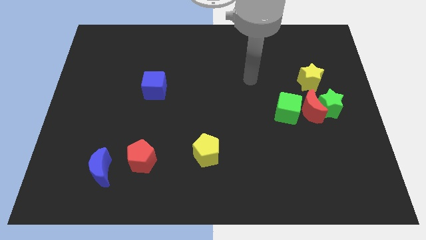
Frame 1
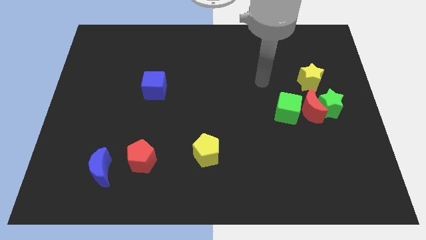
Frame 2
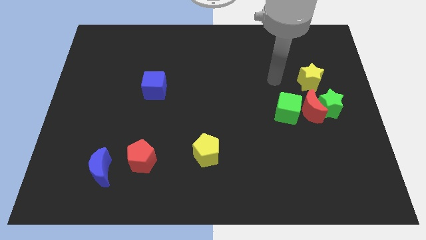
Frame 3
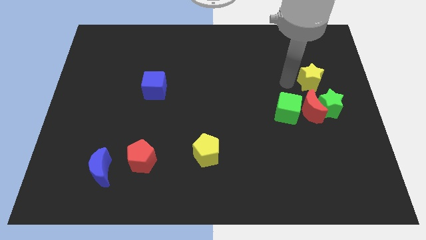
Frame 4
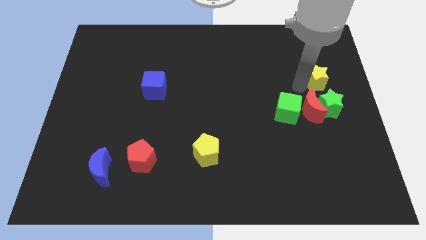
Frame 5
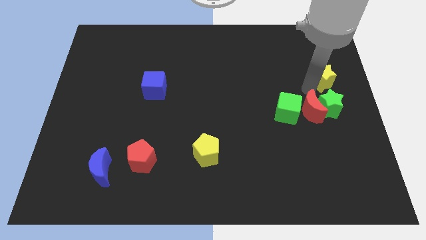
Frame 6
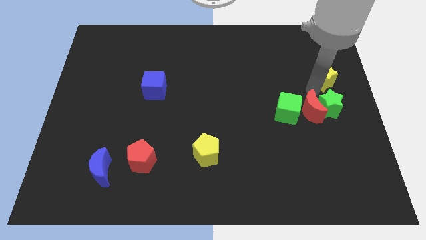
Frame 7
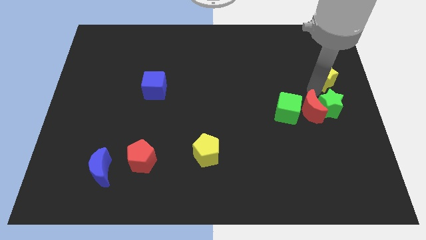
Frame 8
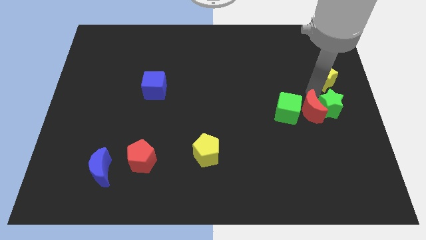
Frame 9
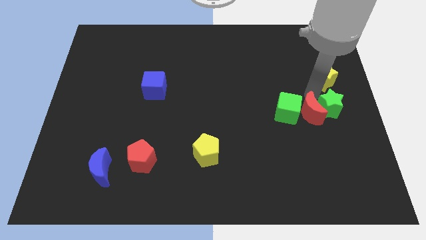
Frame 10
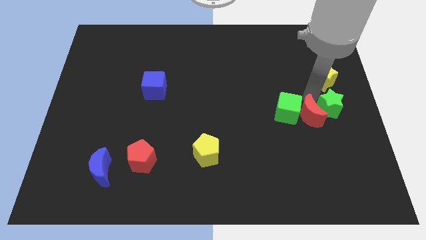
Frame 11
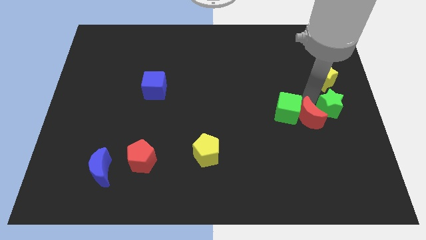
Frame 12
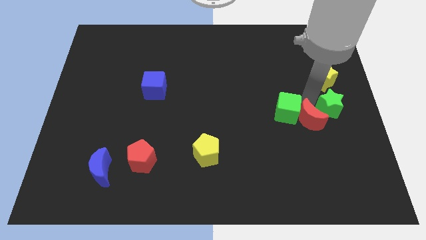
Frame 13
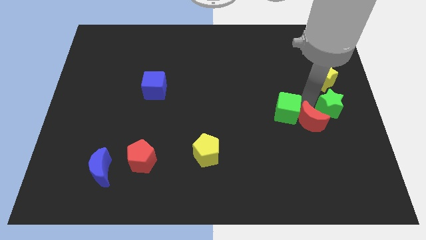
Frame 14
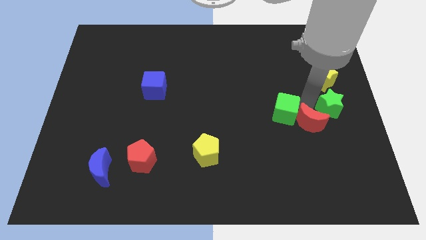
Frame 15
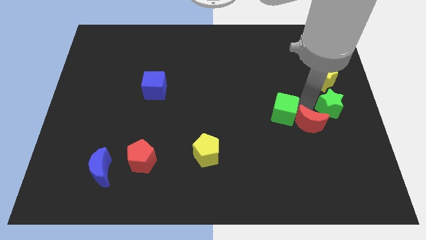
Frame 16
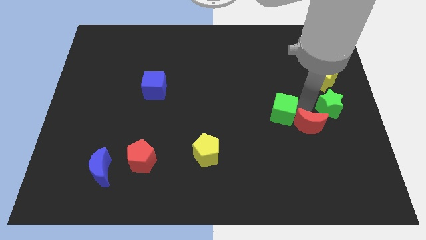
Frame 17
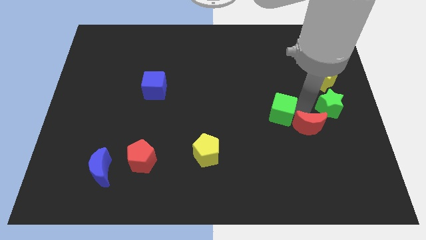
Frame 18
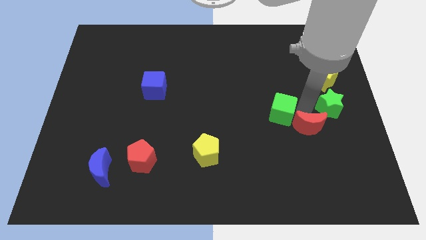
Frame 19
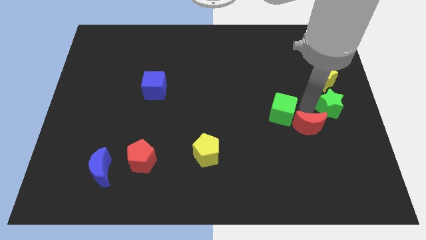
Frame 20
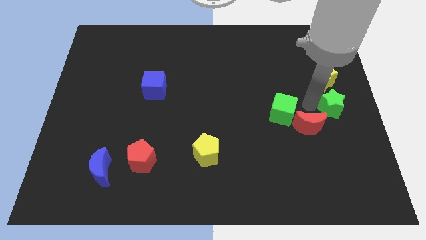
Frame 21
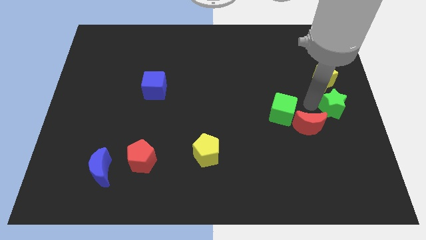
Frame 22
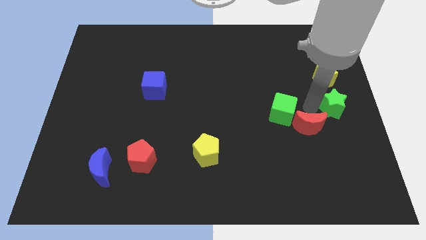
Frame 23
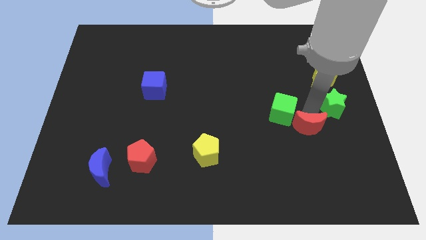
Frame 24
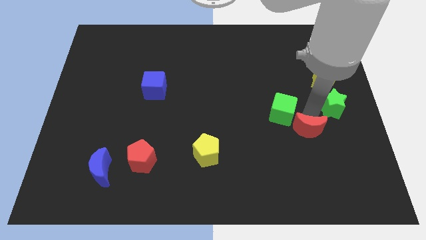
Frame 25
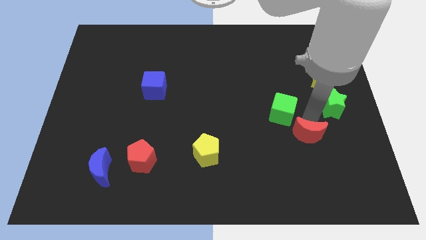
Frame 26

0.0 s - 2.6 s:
move the red moon away from the clump

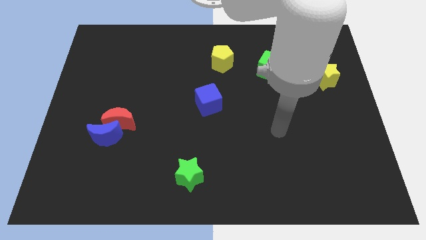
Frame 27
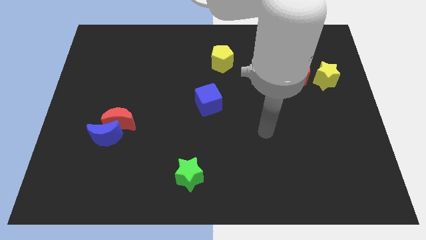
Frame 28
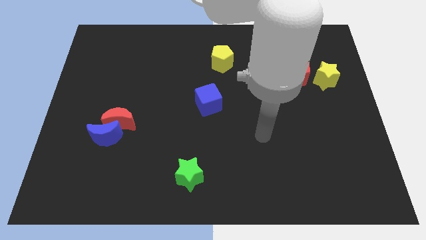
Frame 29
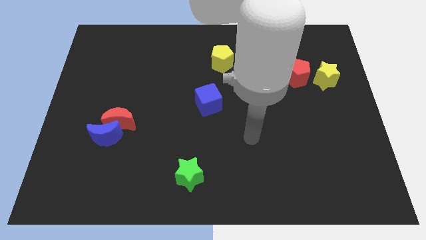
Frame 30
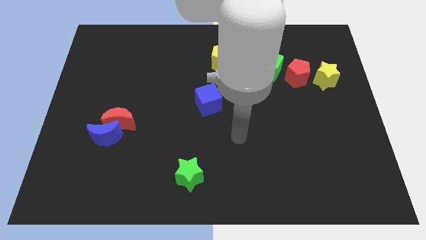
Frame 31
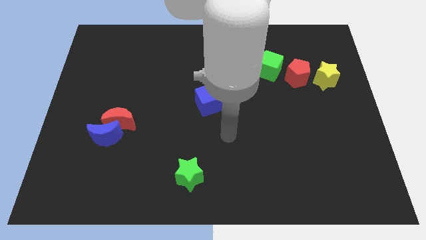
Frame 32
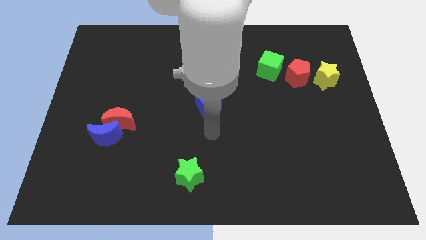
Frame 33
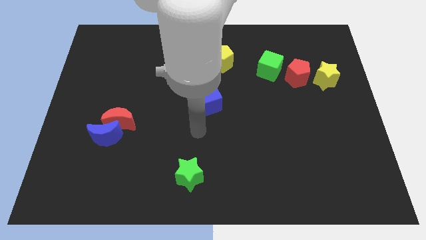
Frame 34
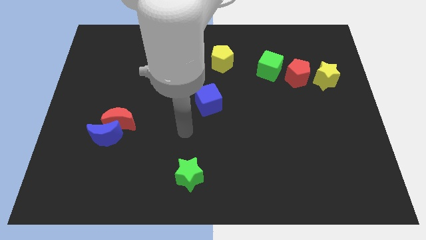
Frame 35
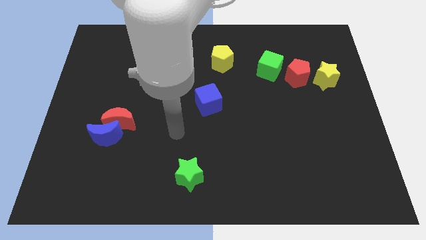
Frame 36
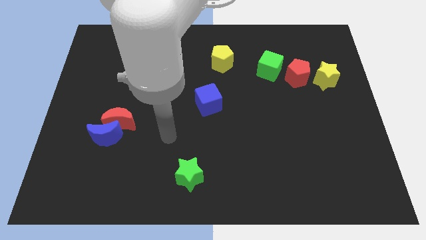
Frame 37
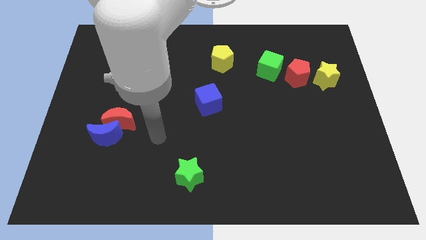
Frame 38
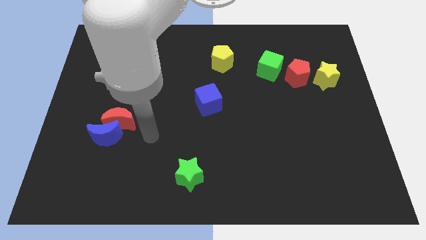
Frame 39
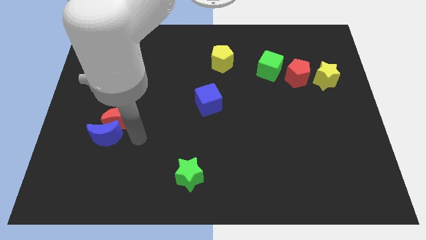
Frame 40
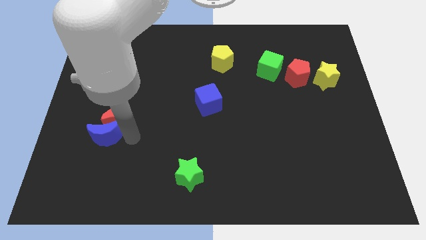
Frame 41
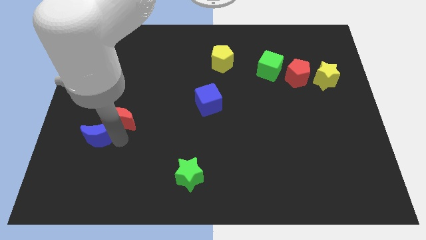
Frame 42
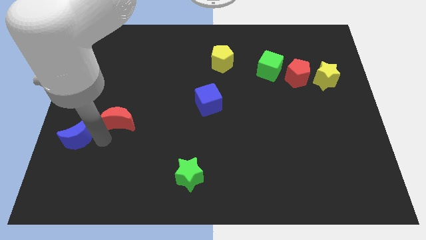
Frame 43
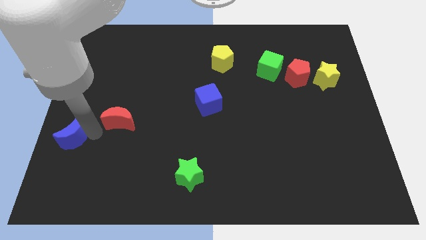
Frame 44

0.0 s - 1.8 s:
pull the red moon apart from the blue moon

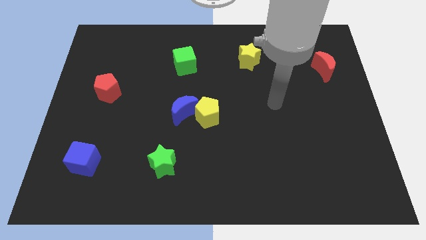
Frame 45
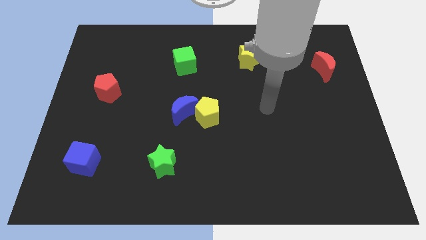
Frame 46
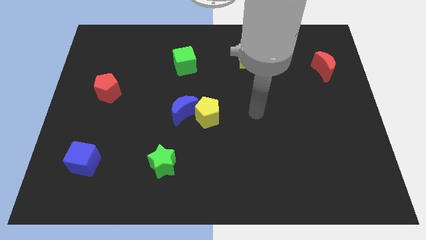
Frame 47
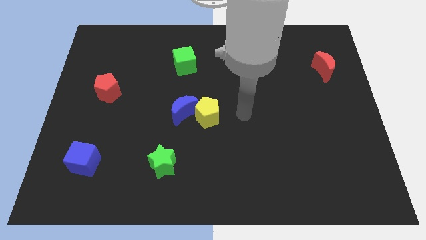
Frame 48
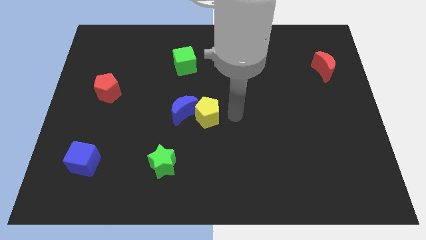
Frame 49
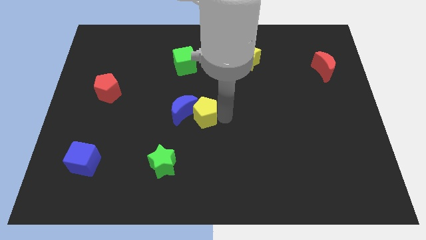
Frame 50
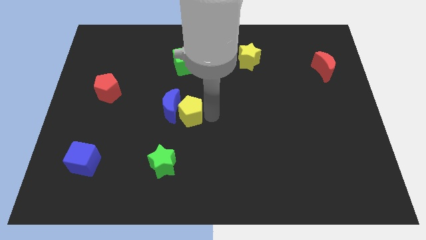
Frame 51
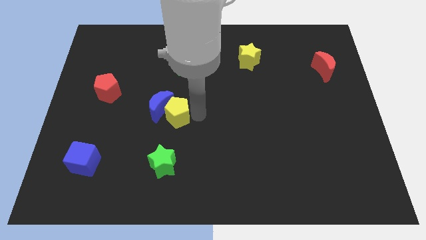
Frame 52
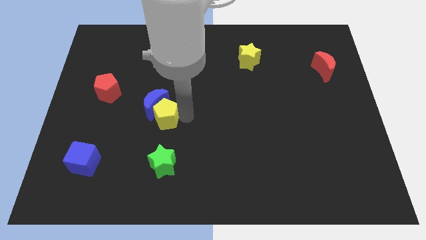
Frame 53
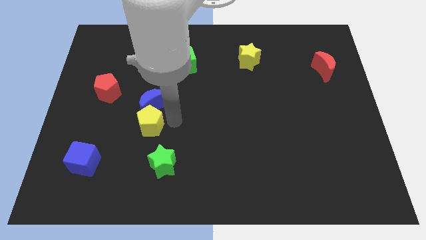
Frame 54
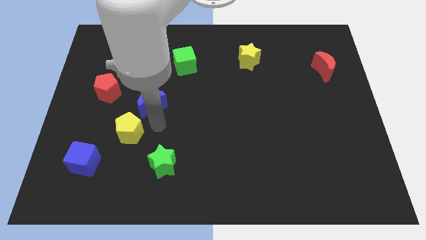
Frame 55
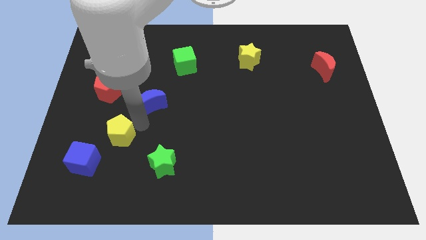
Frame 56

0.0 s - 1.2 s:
separate the blue moon from the yellow pentagon

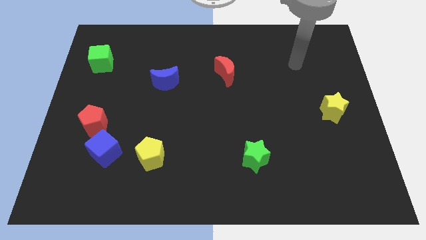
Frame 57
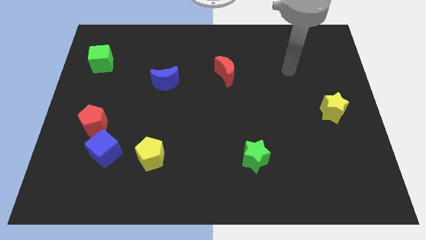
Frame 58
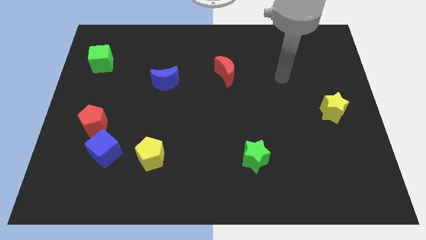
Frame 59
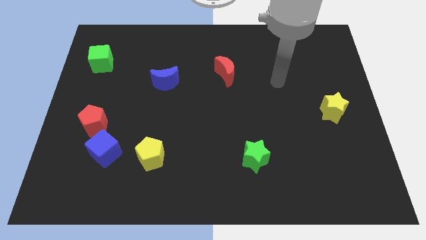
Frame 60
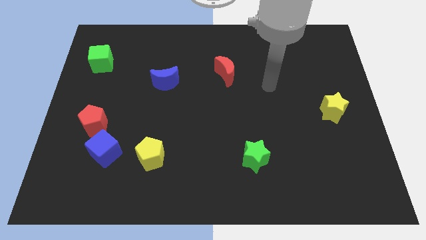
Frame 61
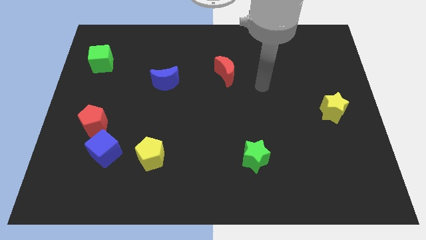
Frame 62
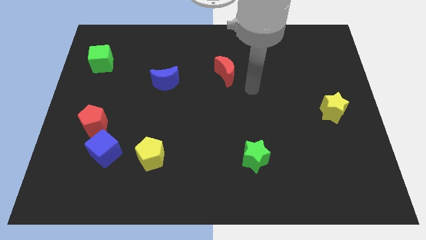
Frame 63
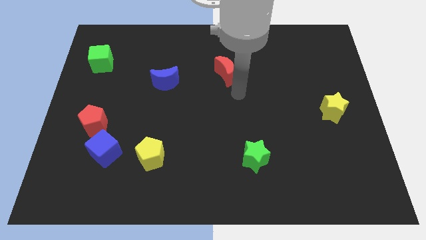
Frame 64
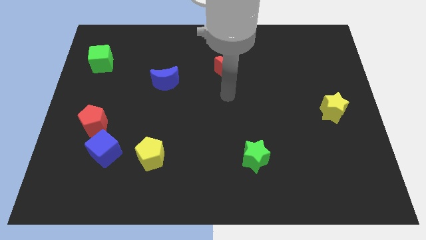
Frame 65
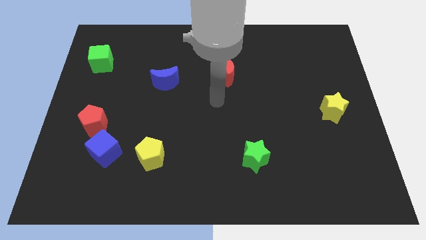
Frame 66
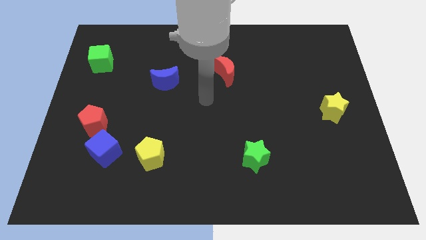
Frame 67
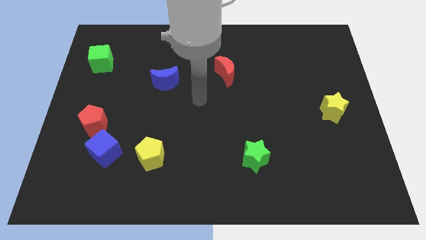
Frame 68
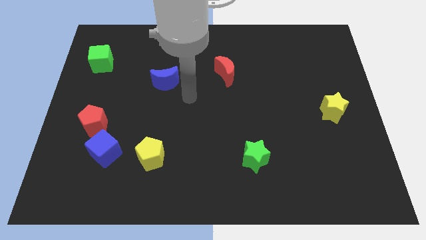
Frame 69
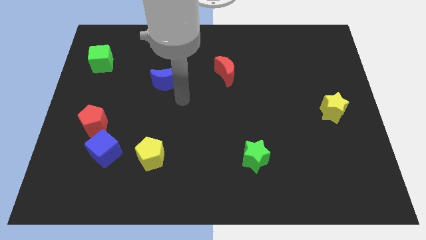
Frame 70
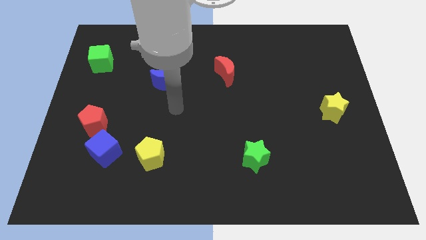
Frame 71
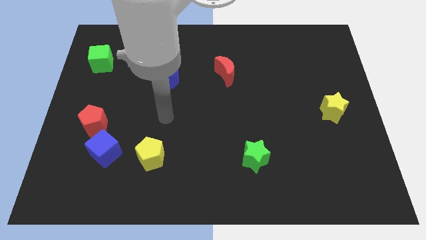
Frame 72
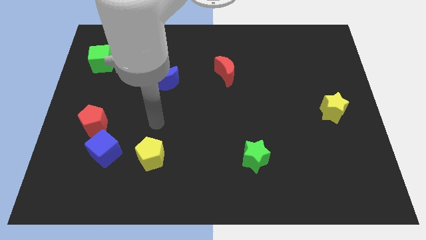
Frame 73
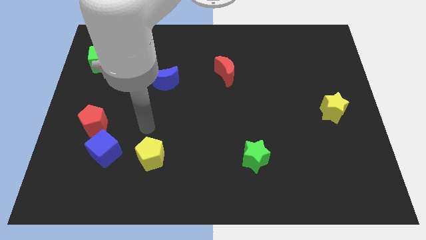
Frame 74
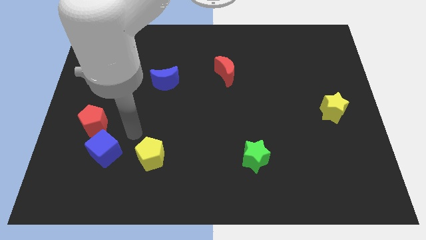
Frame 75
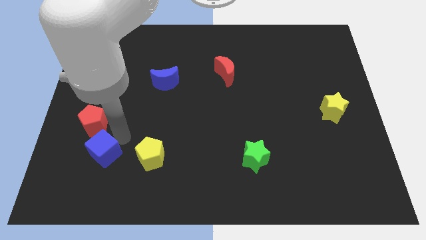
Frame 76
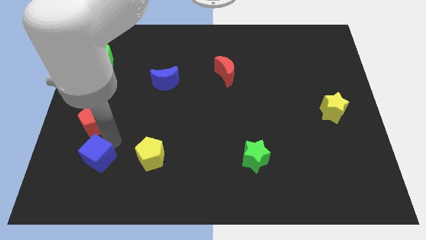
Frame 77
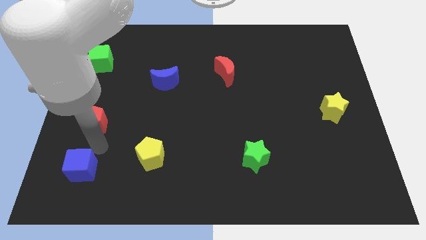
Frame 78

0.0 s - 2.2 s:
separate the red pentagon from the blue cube

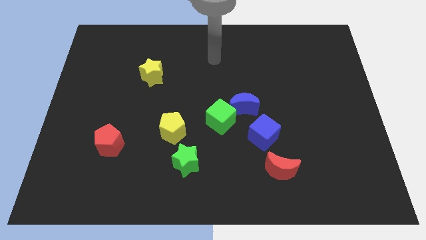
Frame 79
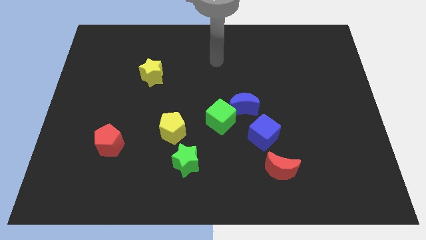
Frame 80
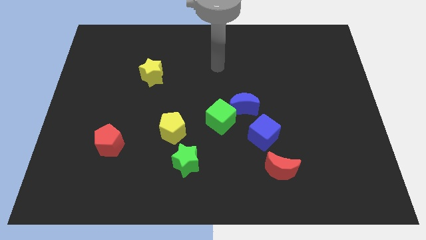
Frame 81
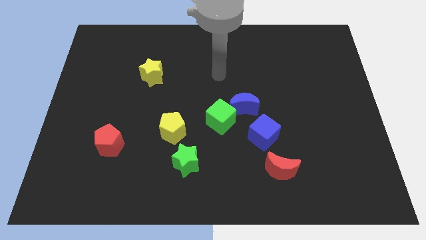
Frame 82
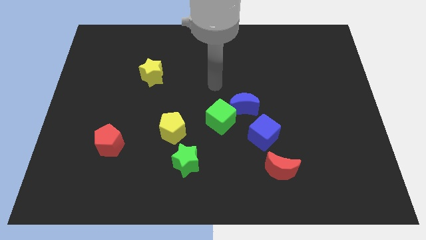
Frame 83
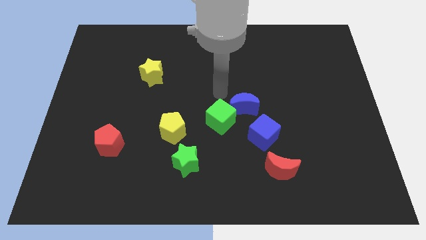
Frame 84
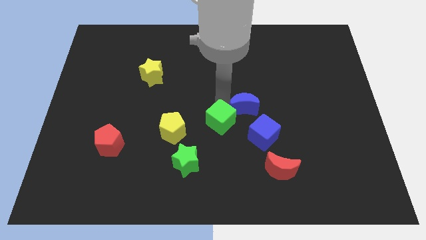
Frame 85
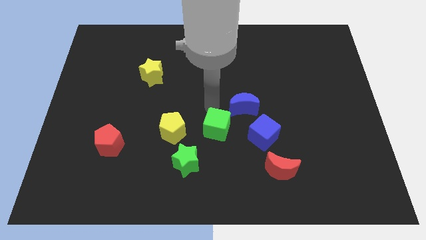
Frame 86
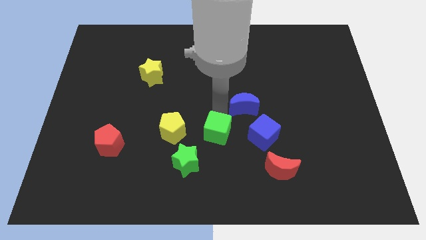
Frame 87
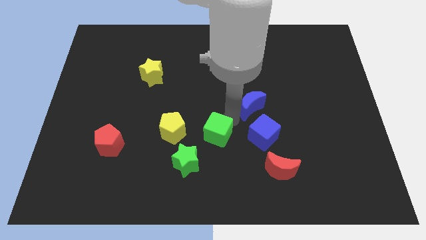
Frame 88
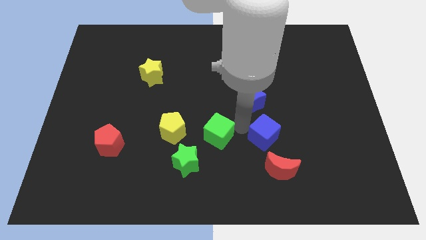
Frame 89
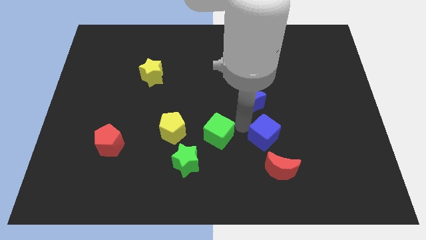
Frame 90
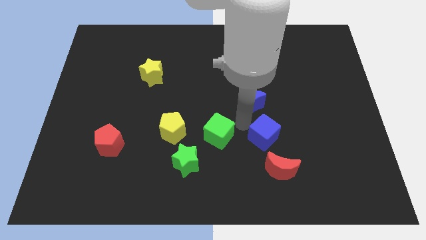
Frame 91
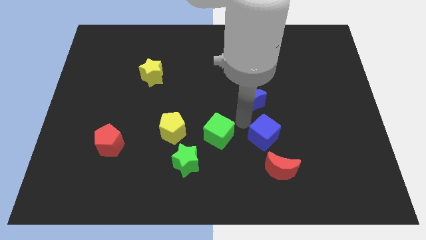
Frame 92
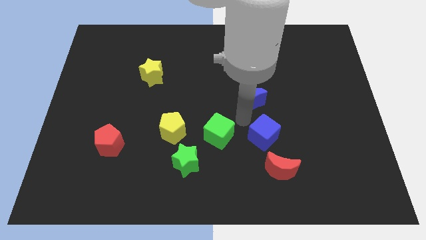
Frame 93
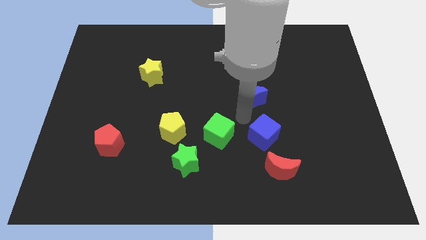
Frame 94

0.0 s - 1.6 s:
pull the blue moon apart from the green cube and blue cube
